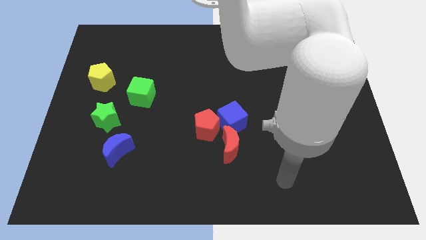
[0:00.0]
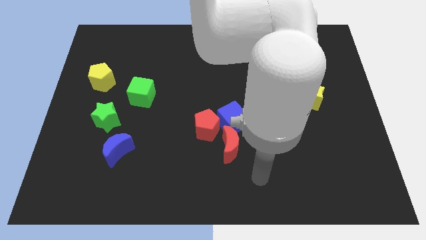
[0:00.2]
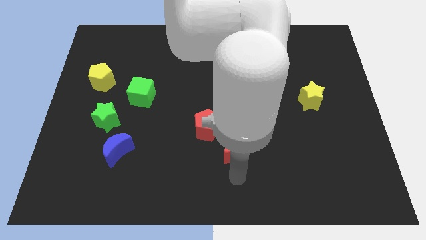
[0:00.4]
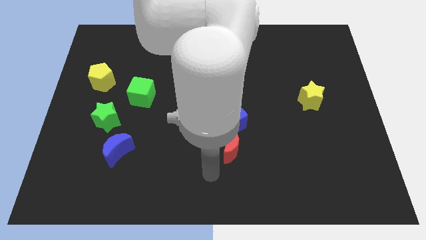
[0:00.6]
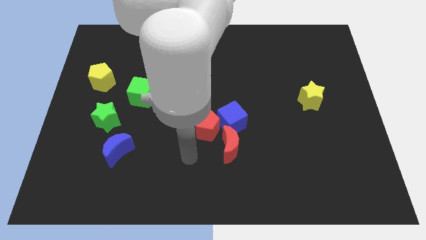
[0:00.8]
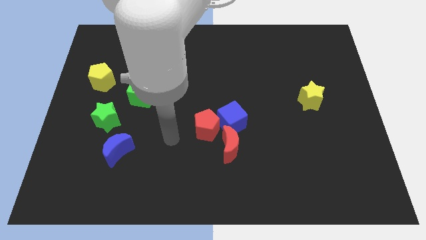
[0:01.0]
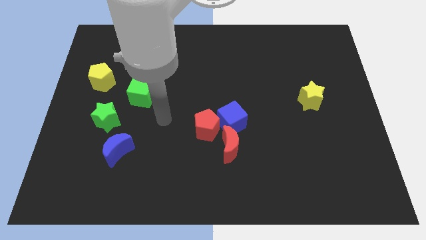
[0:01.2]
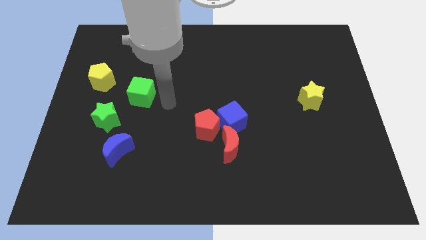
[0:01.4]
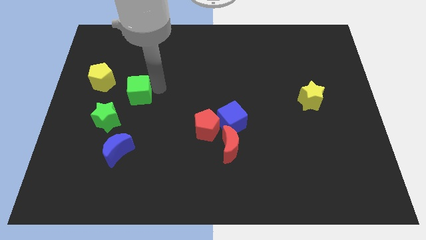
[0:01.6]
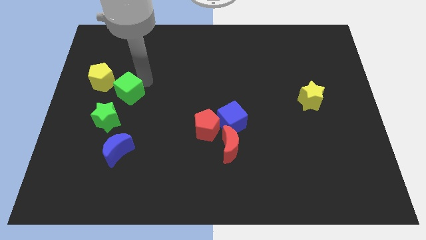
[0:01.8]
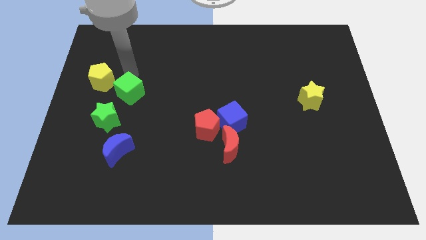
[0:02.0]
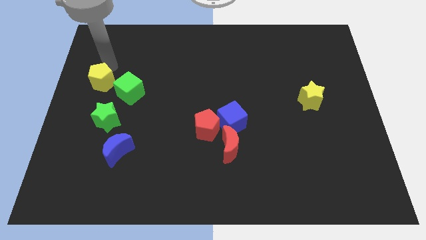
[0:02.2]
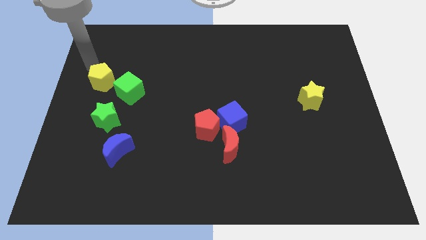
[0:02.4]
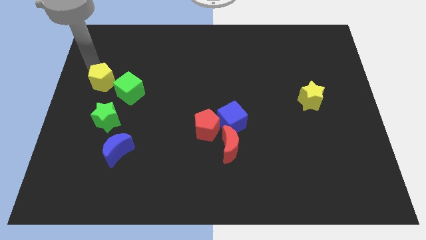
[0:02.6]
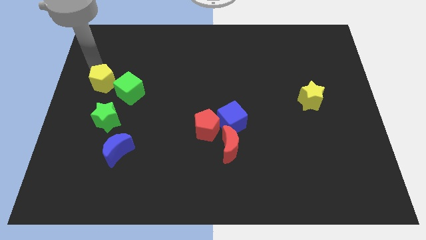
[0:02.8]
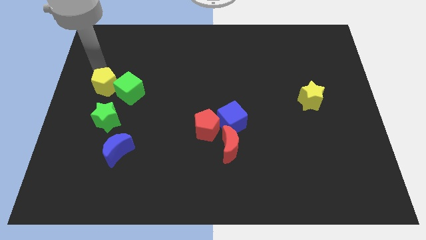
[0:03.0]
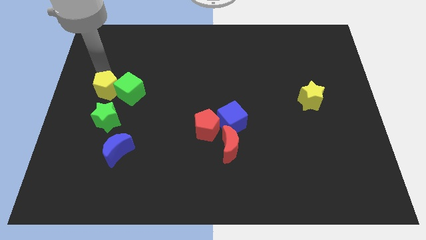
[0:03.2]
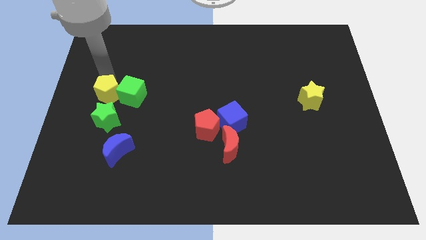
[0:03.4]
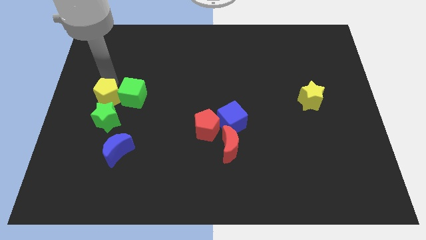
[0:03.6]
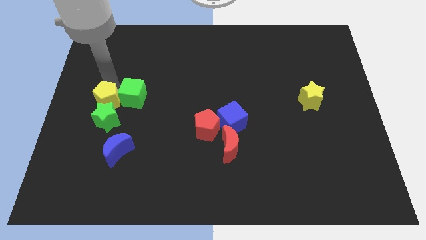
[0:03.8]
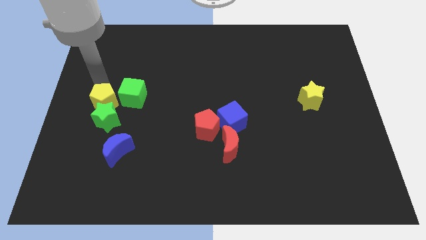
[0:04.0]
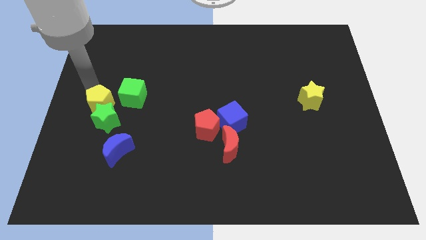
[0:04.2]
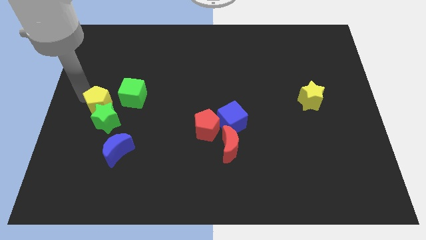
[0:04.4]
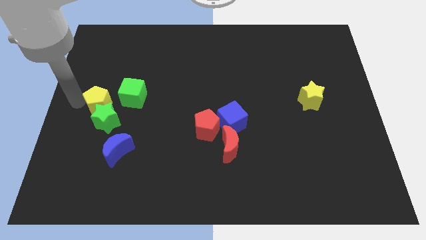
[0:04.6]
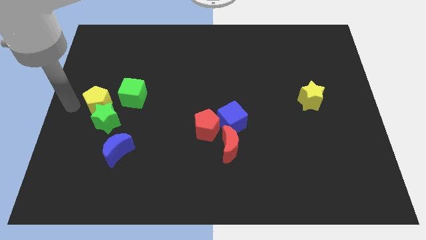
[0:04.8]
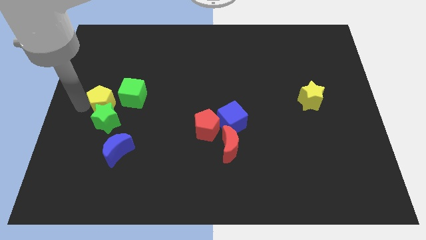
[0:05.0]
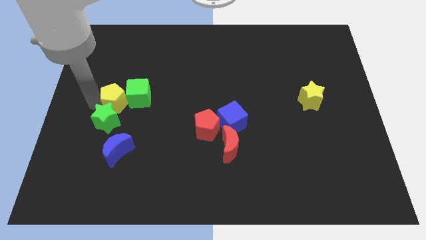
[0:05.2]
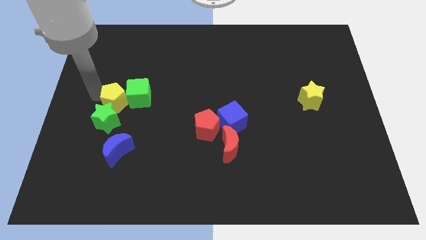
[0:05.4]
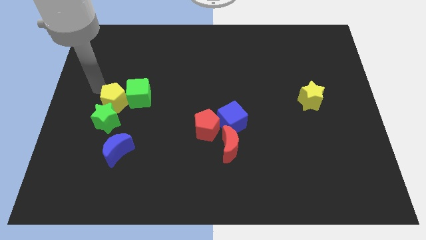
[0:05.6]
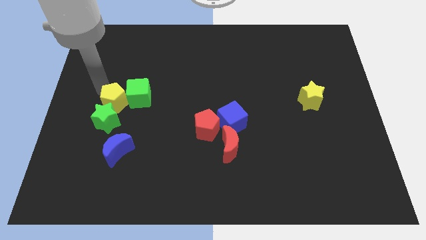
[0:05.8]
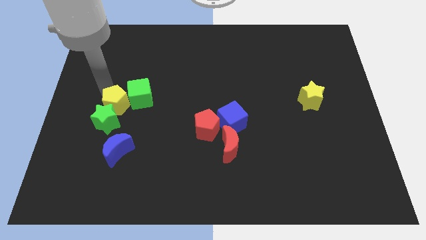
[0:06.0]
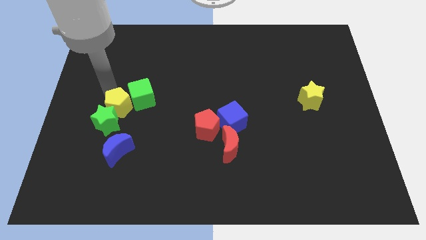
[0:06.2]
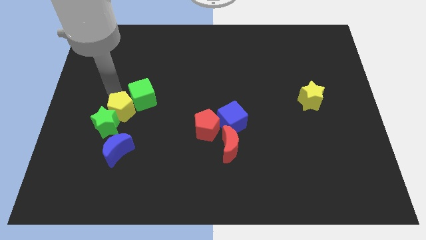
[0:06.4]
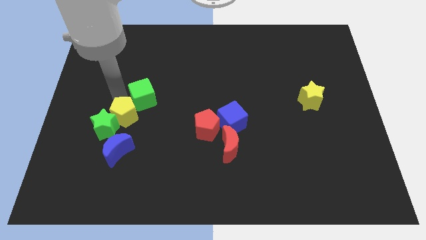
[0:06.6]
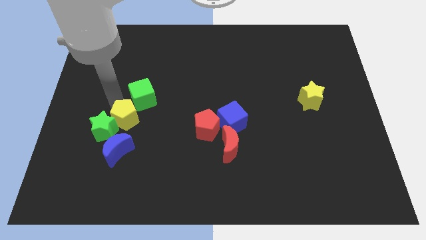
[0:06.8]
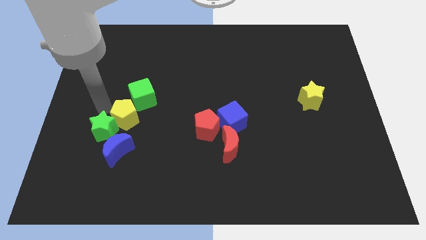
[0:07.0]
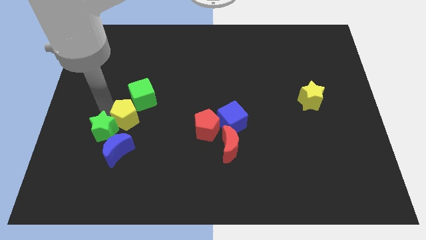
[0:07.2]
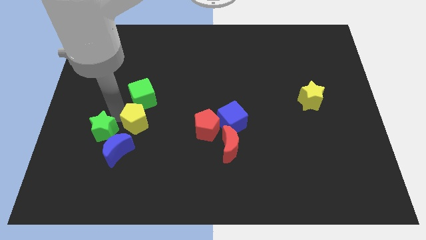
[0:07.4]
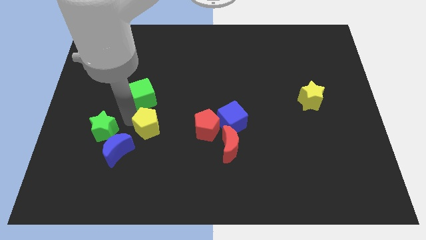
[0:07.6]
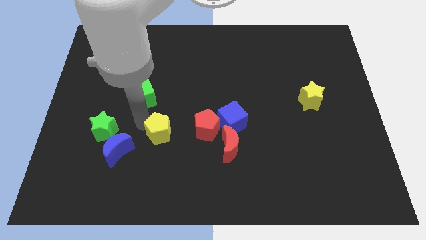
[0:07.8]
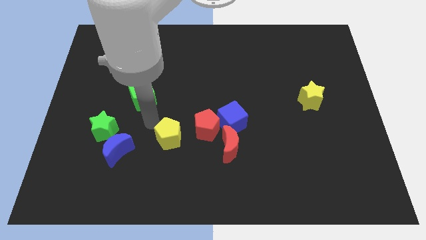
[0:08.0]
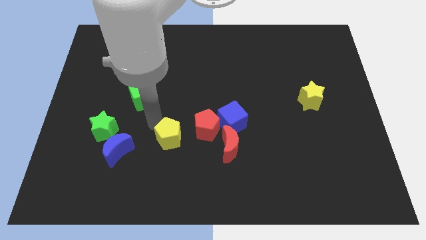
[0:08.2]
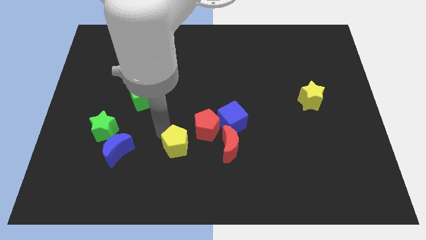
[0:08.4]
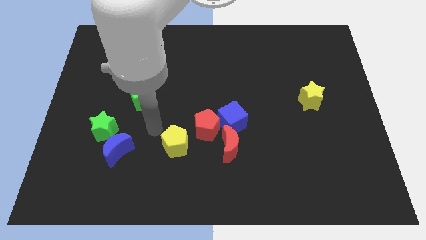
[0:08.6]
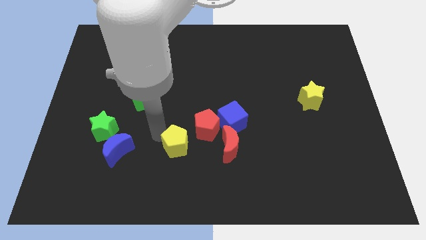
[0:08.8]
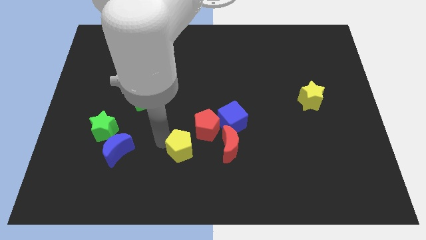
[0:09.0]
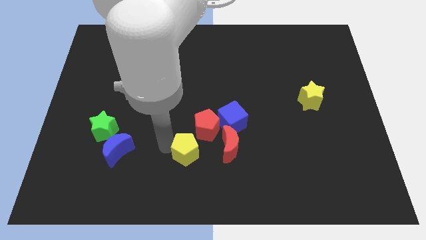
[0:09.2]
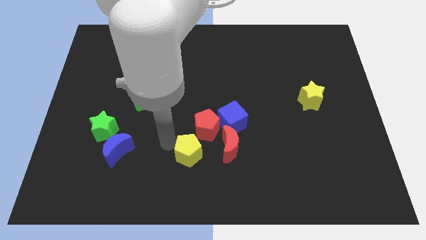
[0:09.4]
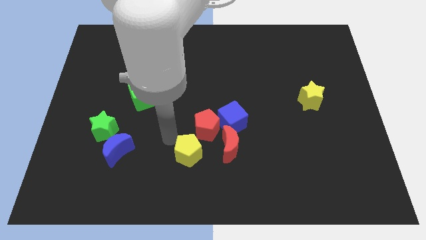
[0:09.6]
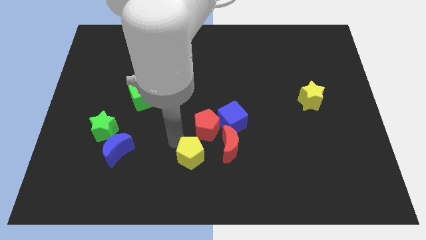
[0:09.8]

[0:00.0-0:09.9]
move the yellow pentagon to the bottom left side of the red moon

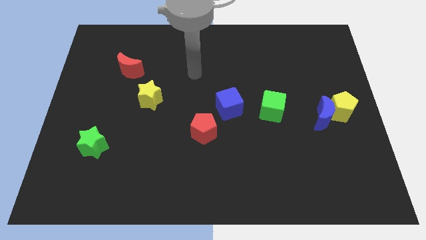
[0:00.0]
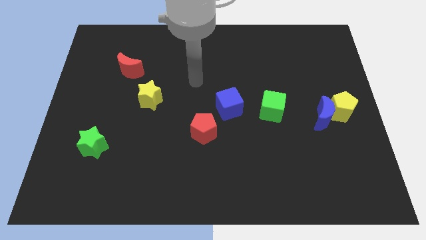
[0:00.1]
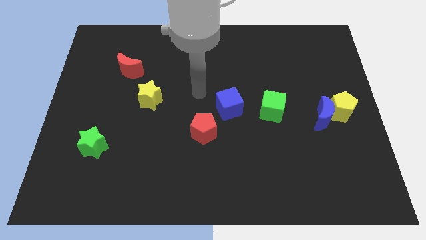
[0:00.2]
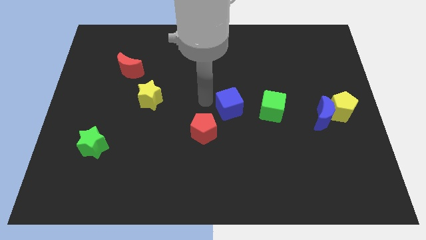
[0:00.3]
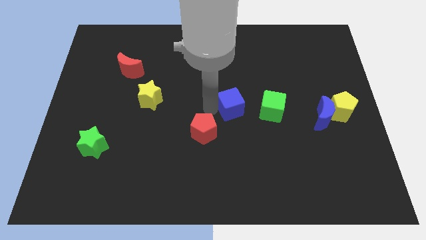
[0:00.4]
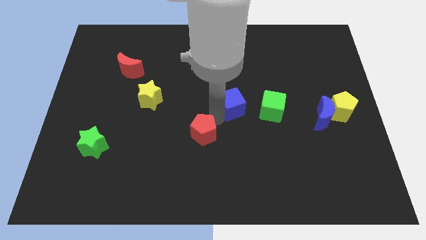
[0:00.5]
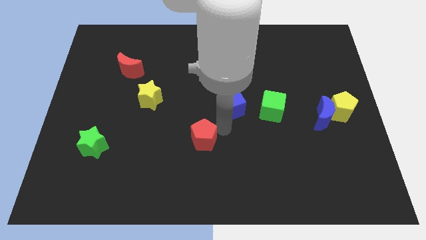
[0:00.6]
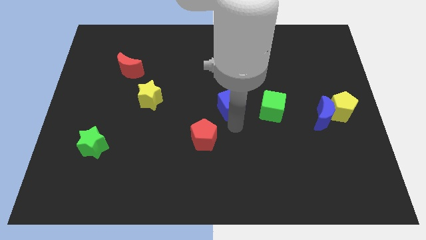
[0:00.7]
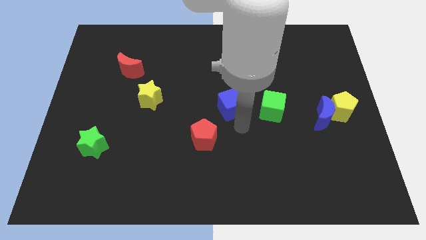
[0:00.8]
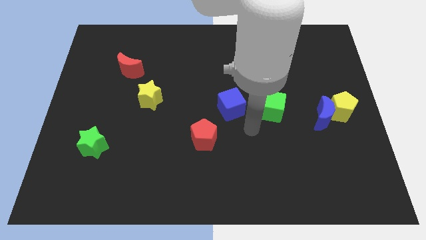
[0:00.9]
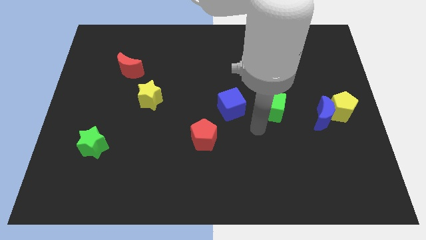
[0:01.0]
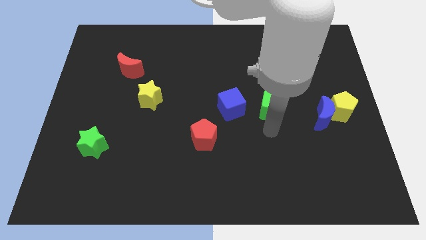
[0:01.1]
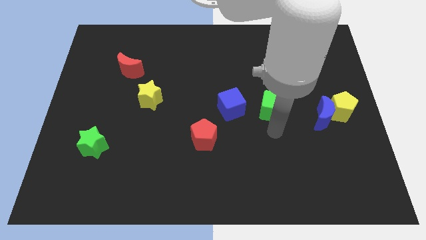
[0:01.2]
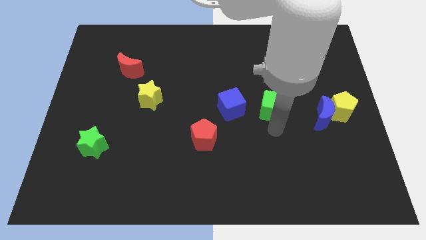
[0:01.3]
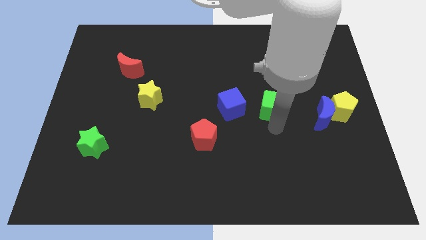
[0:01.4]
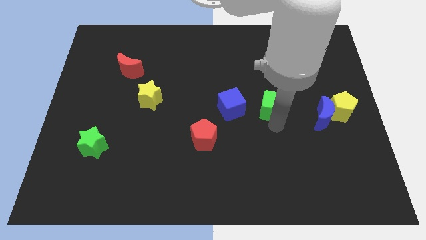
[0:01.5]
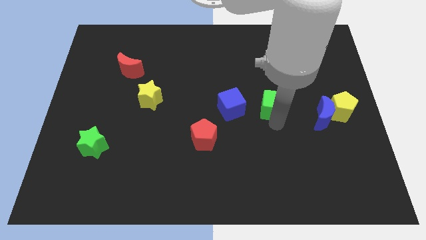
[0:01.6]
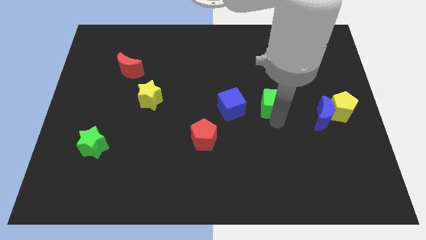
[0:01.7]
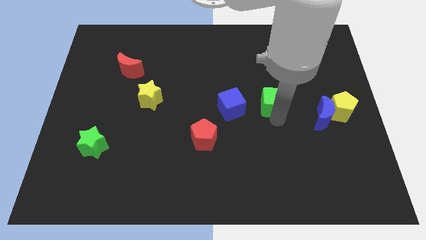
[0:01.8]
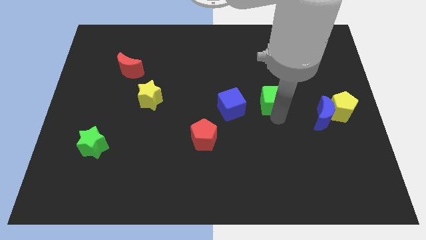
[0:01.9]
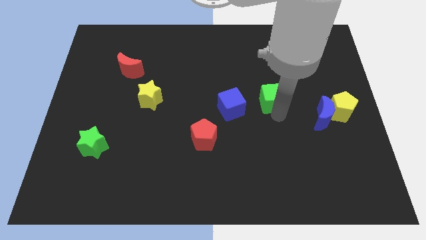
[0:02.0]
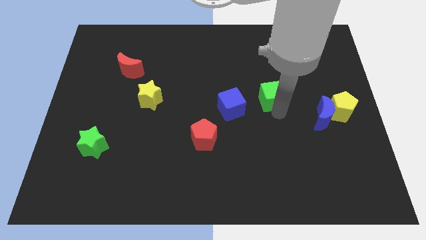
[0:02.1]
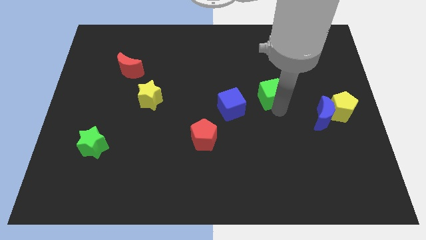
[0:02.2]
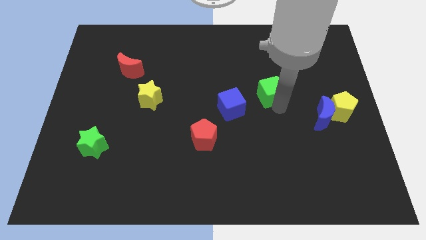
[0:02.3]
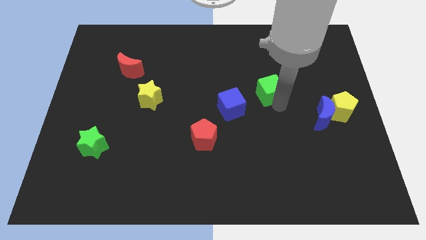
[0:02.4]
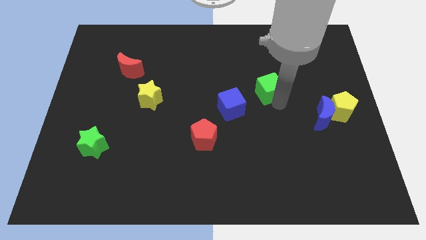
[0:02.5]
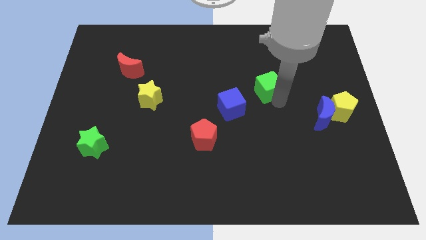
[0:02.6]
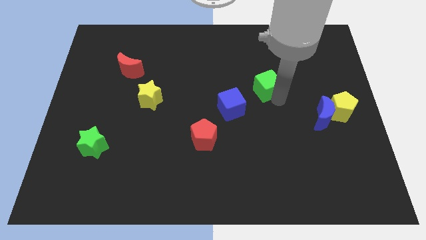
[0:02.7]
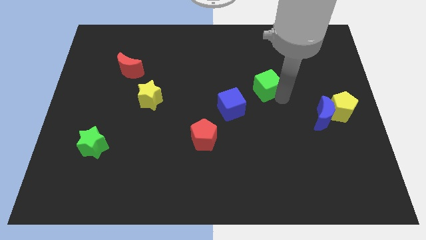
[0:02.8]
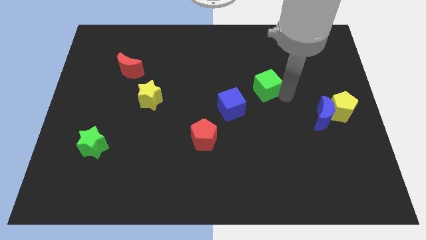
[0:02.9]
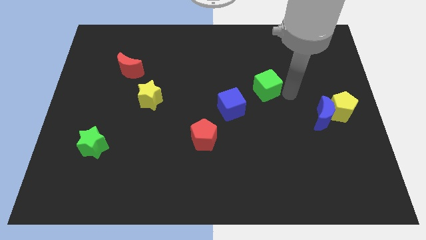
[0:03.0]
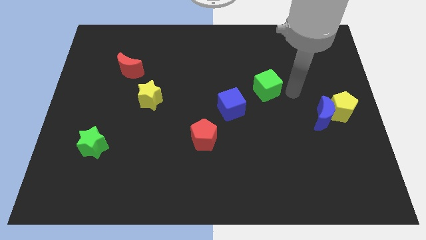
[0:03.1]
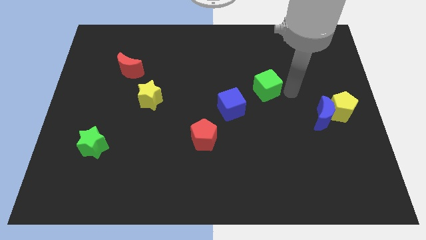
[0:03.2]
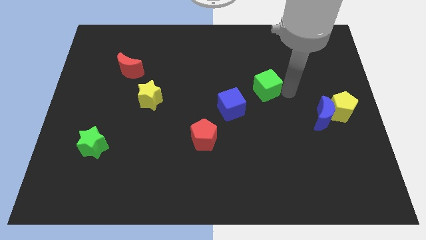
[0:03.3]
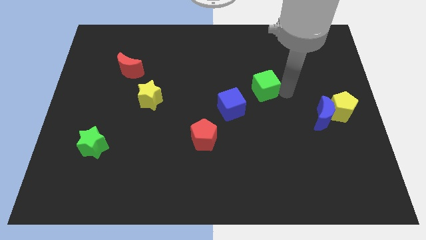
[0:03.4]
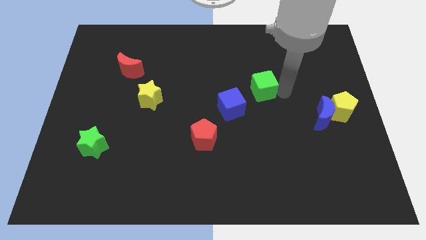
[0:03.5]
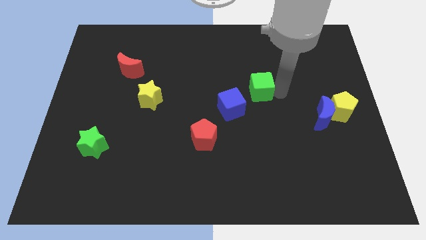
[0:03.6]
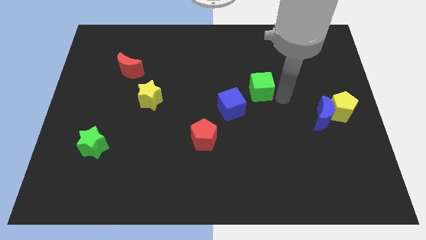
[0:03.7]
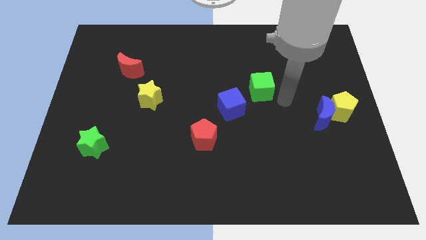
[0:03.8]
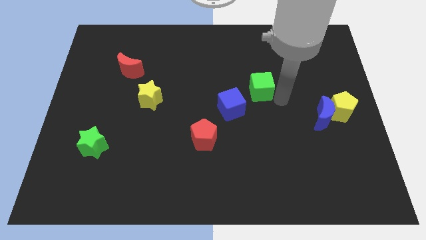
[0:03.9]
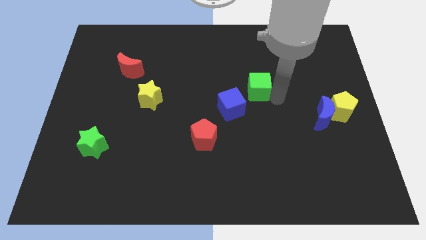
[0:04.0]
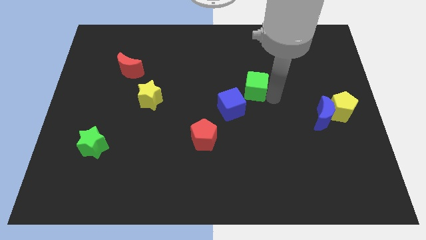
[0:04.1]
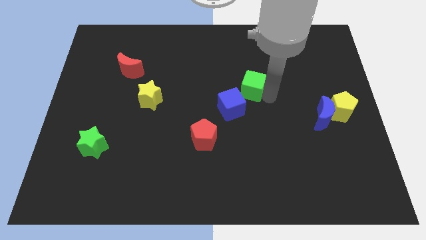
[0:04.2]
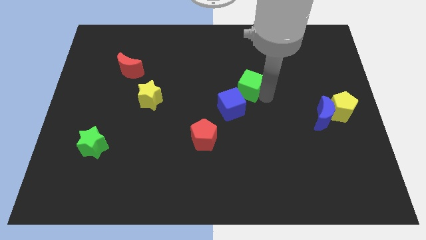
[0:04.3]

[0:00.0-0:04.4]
push the green cube to the top side of the blue cube
